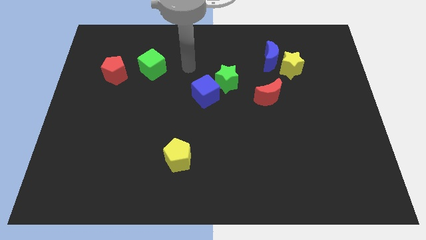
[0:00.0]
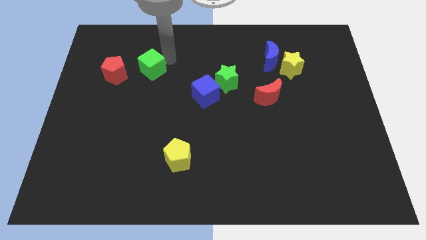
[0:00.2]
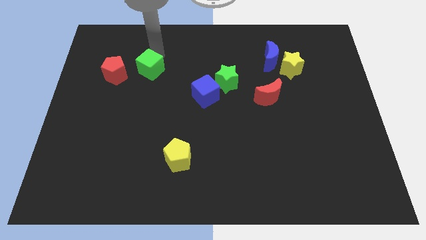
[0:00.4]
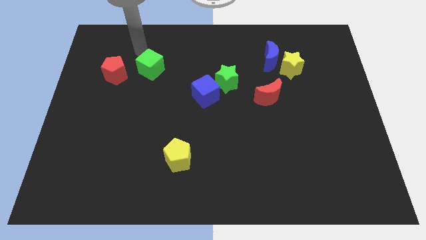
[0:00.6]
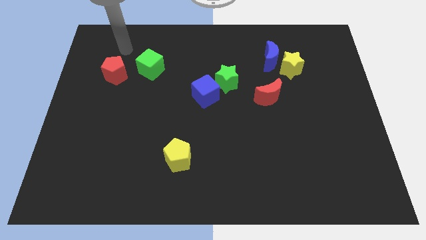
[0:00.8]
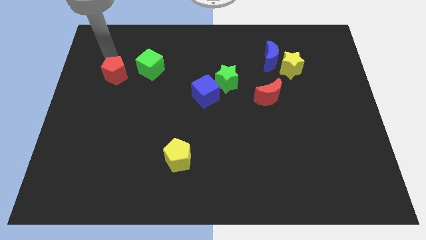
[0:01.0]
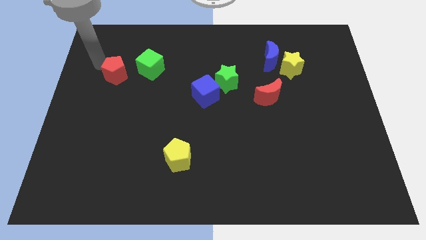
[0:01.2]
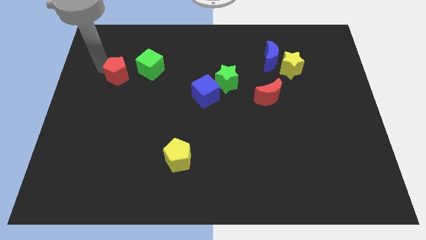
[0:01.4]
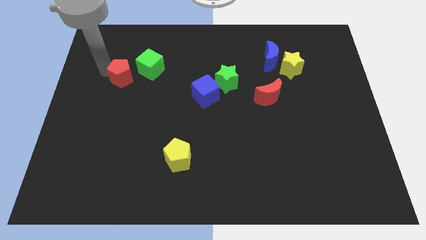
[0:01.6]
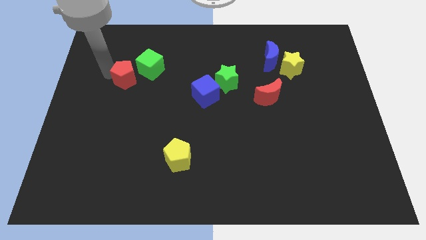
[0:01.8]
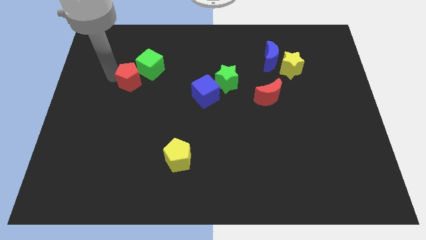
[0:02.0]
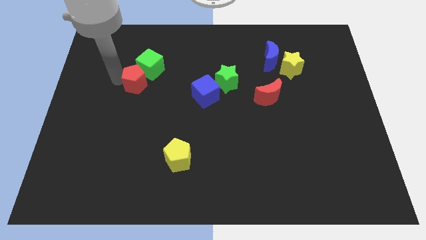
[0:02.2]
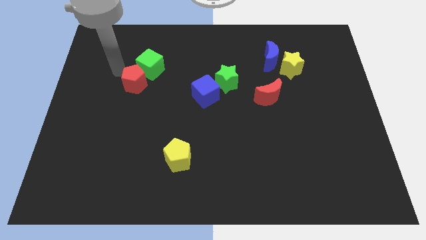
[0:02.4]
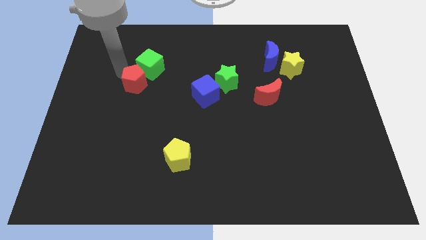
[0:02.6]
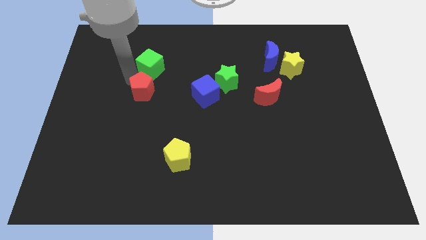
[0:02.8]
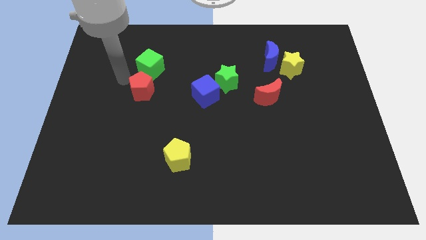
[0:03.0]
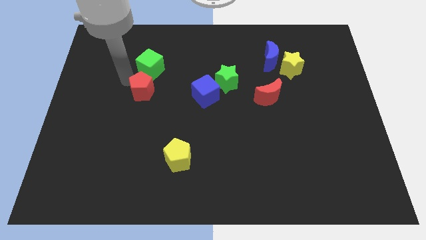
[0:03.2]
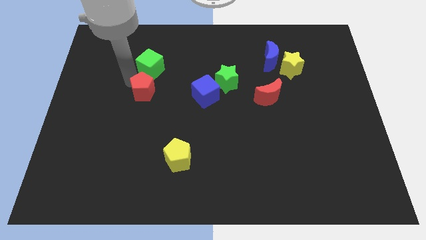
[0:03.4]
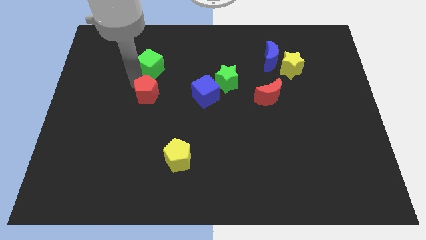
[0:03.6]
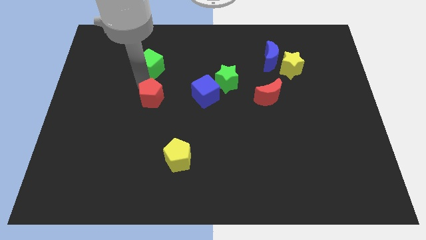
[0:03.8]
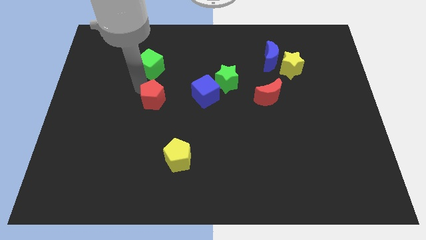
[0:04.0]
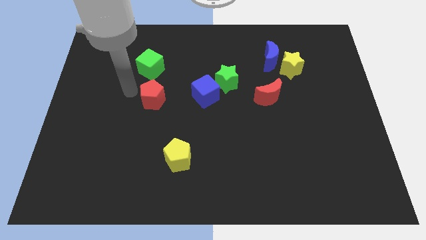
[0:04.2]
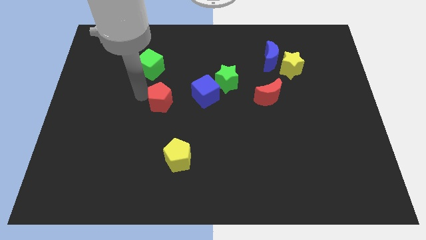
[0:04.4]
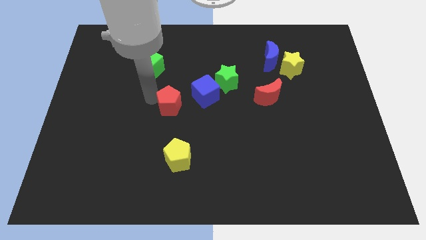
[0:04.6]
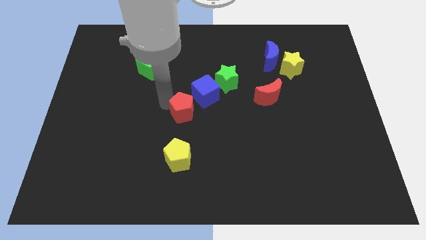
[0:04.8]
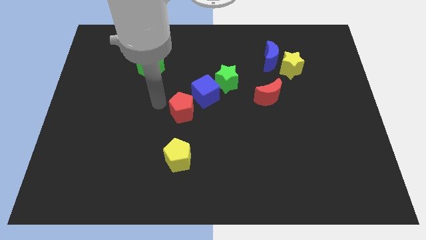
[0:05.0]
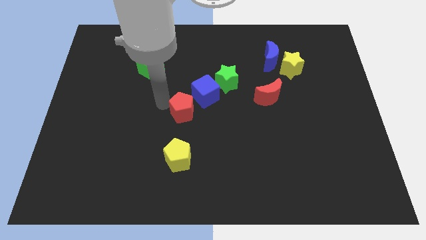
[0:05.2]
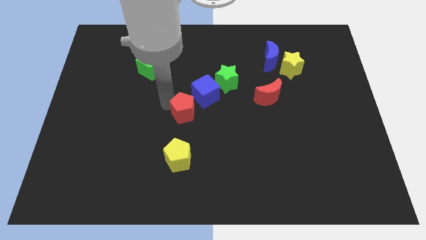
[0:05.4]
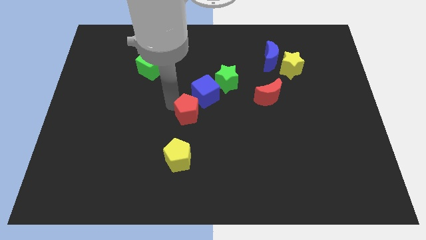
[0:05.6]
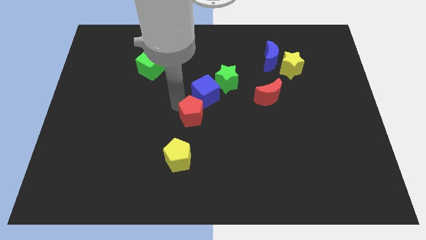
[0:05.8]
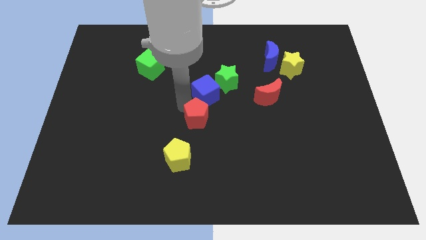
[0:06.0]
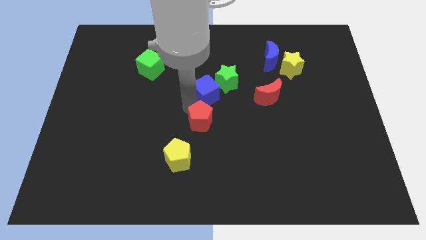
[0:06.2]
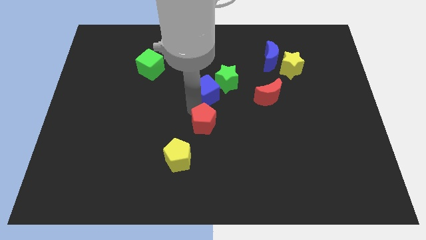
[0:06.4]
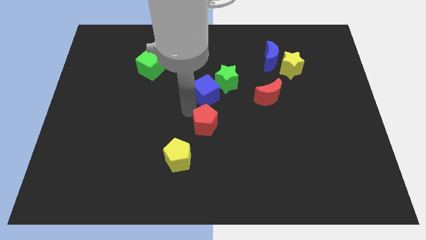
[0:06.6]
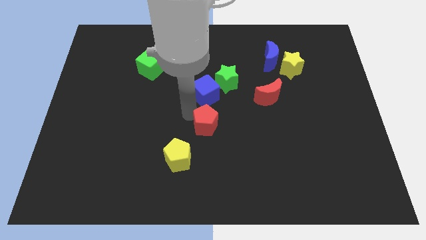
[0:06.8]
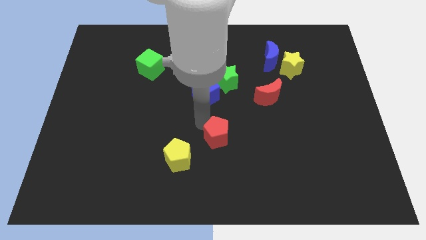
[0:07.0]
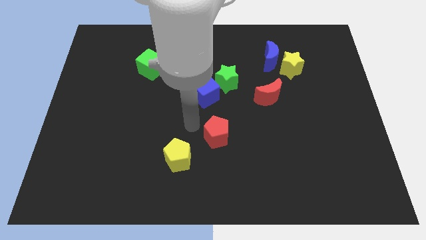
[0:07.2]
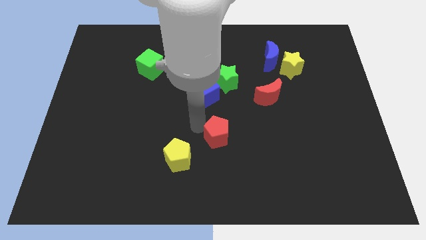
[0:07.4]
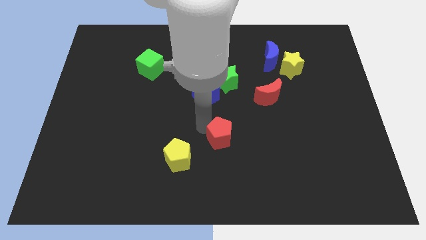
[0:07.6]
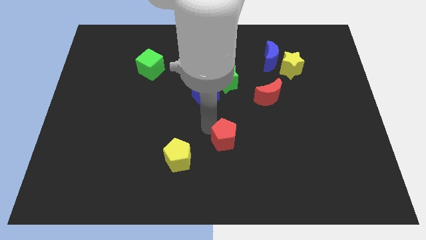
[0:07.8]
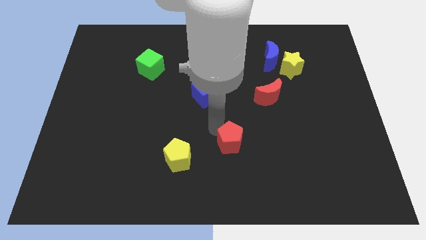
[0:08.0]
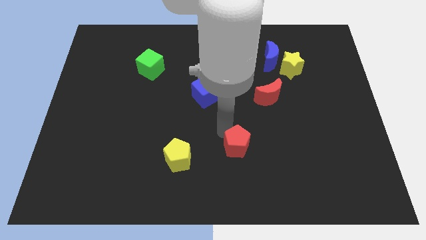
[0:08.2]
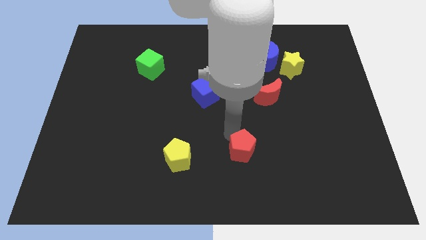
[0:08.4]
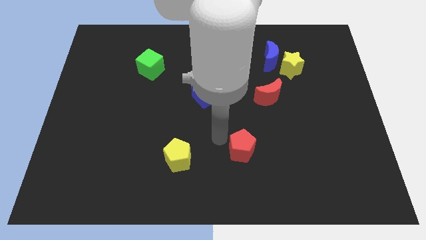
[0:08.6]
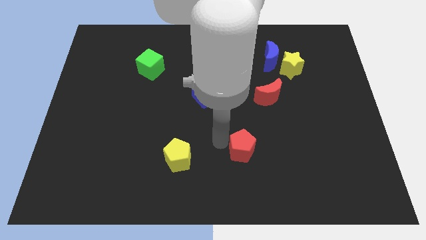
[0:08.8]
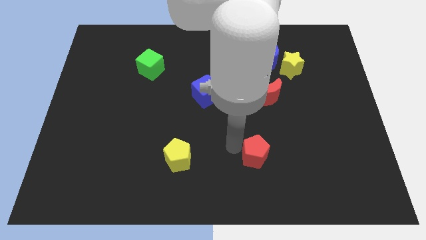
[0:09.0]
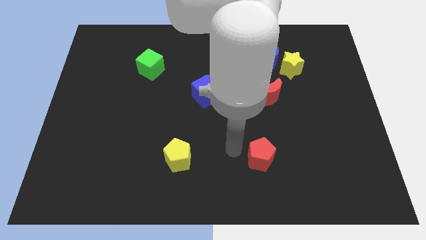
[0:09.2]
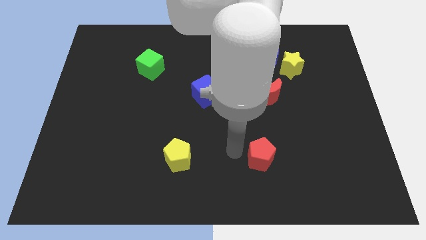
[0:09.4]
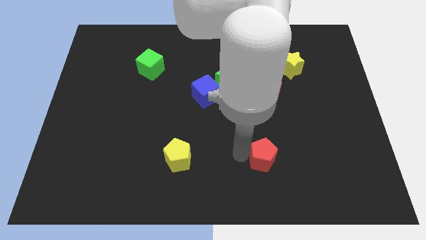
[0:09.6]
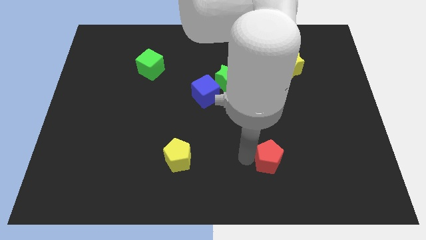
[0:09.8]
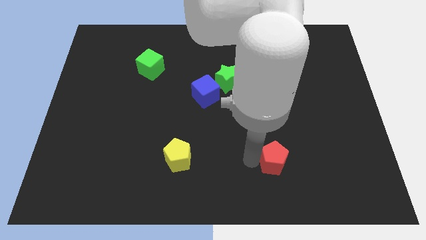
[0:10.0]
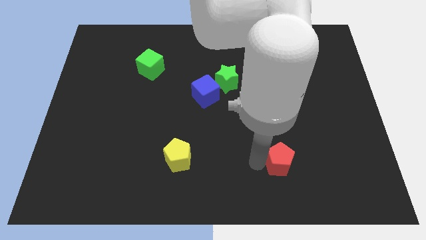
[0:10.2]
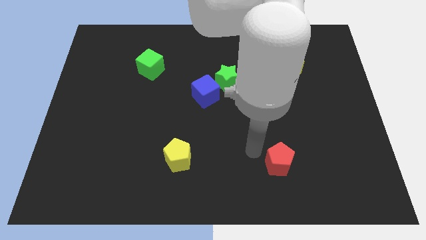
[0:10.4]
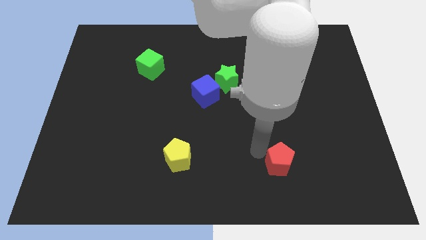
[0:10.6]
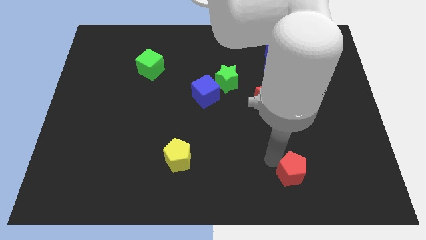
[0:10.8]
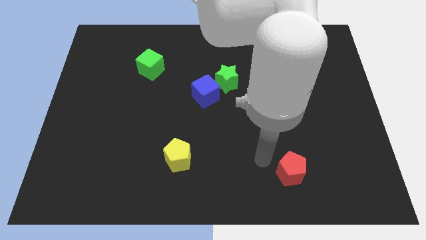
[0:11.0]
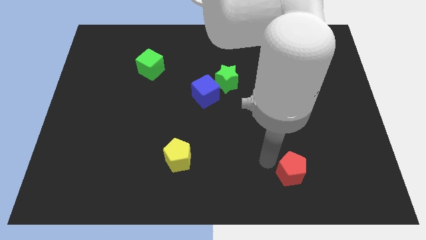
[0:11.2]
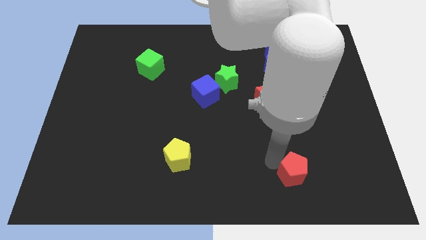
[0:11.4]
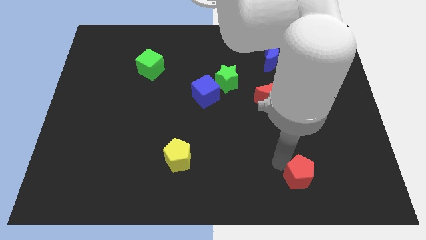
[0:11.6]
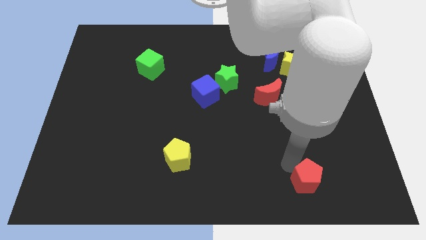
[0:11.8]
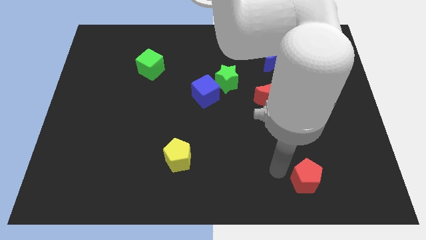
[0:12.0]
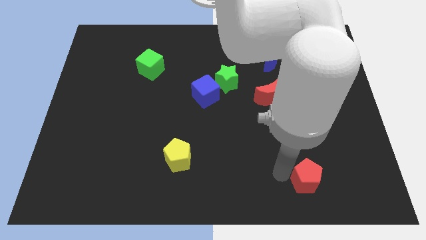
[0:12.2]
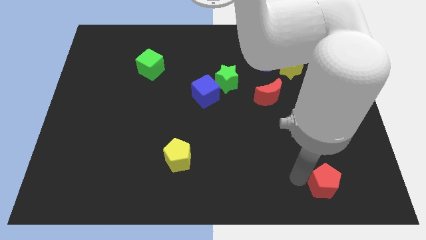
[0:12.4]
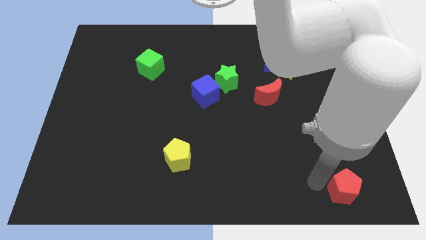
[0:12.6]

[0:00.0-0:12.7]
push the red pentagon to the bottom right

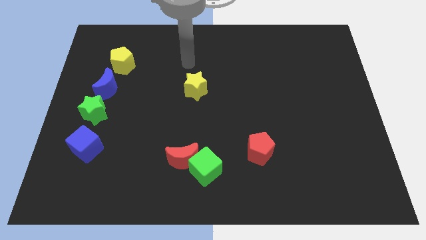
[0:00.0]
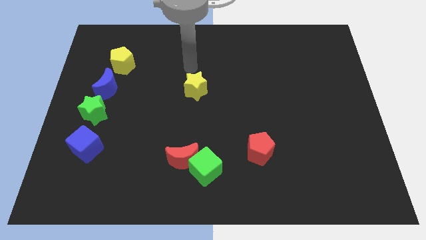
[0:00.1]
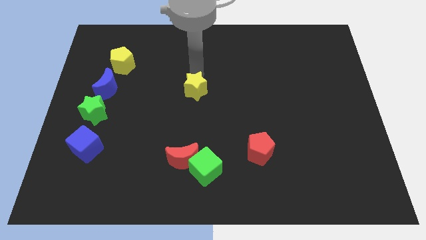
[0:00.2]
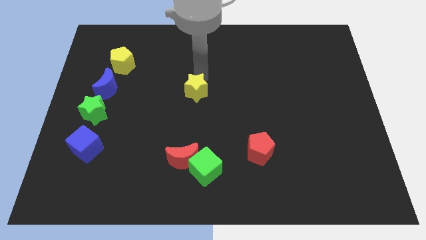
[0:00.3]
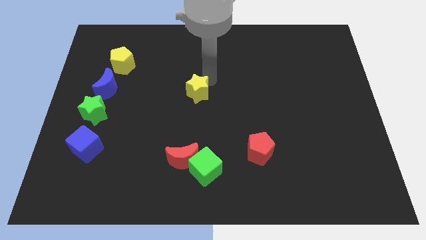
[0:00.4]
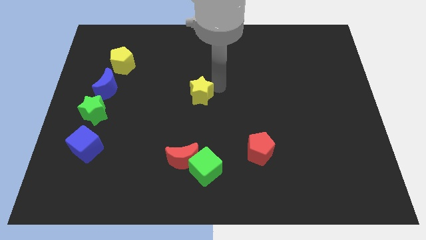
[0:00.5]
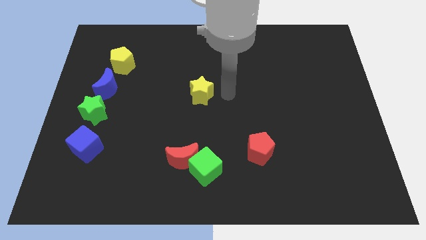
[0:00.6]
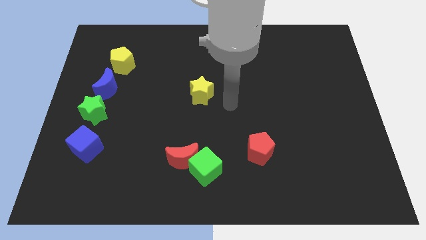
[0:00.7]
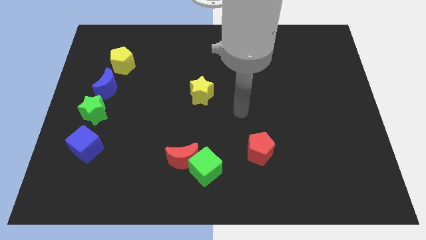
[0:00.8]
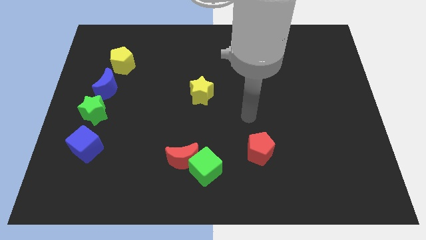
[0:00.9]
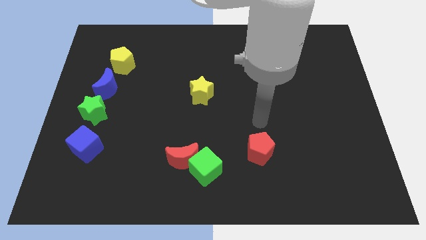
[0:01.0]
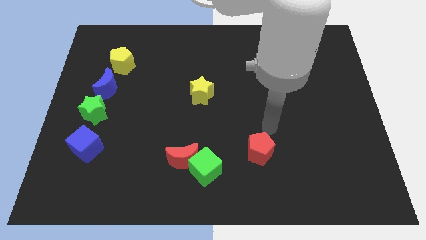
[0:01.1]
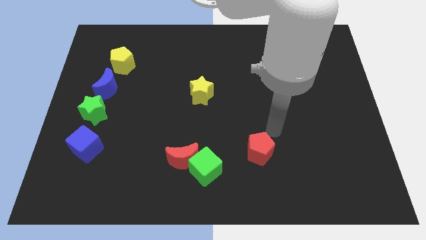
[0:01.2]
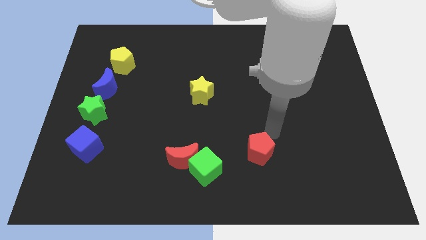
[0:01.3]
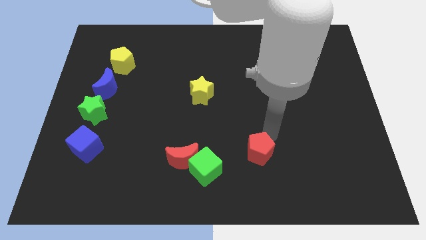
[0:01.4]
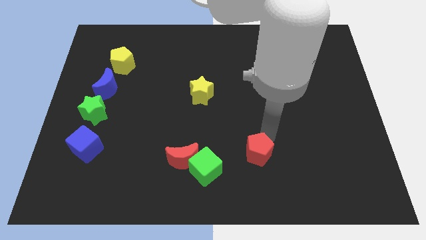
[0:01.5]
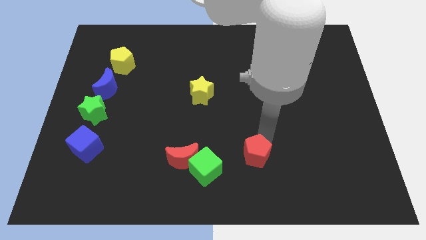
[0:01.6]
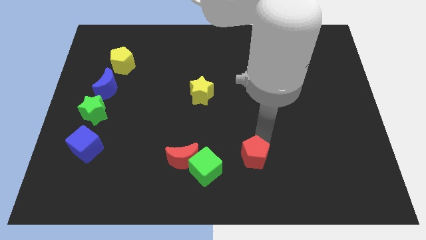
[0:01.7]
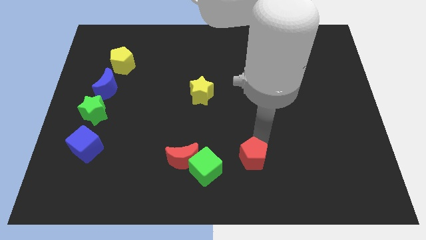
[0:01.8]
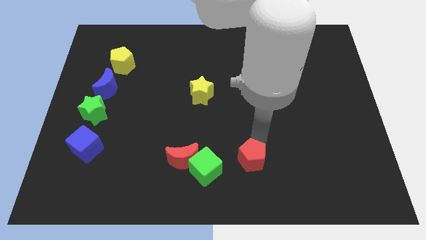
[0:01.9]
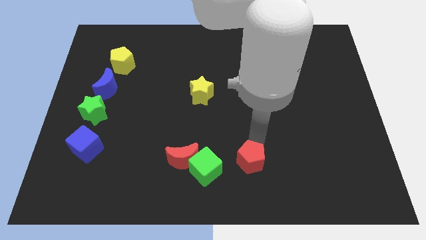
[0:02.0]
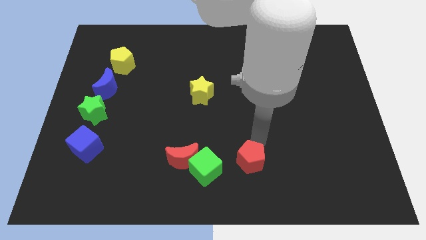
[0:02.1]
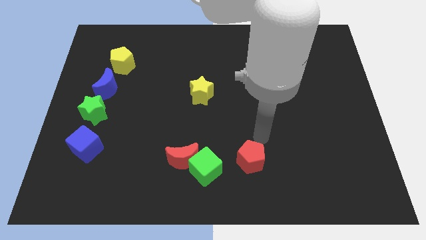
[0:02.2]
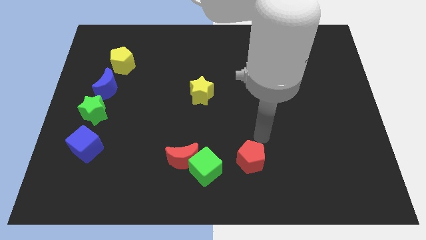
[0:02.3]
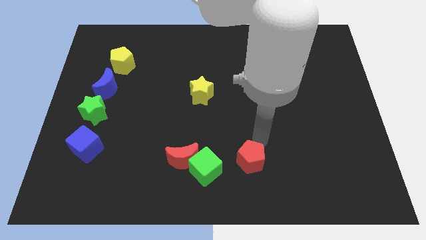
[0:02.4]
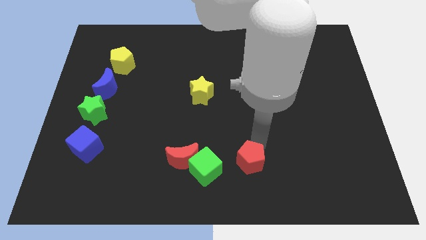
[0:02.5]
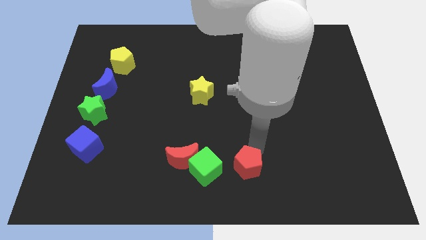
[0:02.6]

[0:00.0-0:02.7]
put the red pentagon to the bottom side
